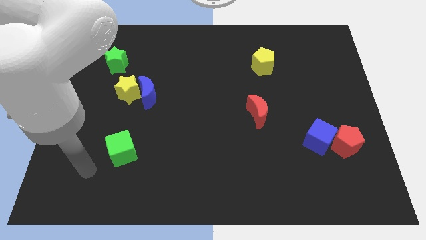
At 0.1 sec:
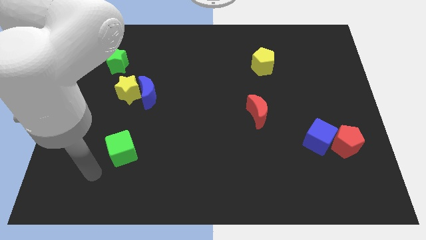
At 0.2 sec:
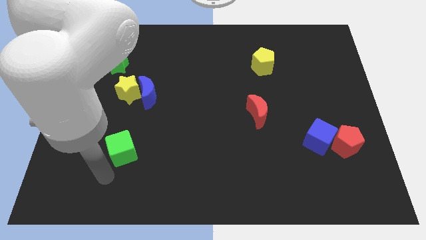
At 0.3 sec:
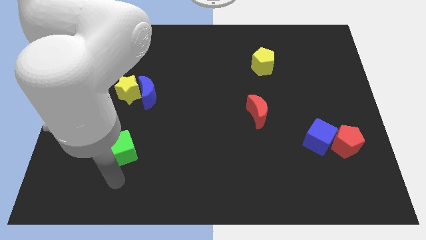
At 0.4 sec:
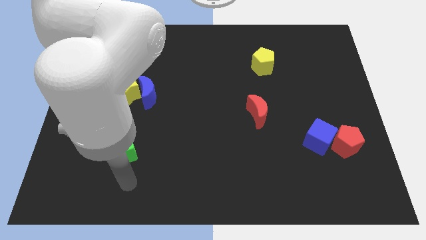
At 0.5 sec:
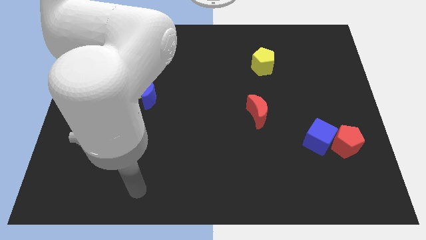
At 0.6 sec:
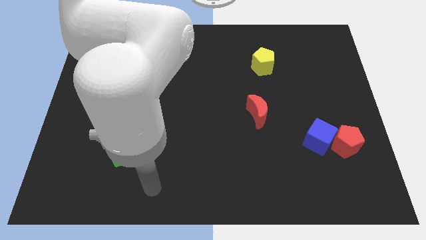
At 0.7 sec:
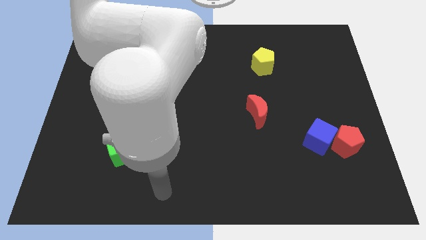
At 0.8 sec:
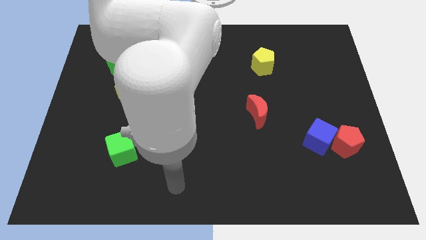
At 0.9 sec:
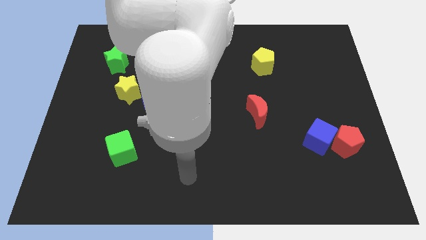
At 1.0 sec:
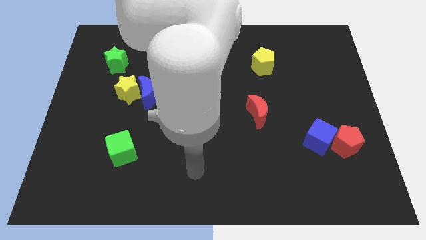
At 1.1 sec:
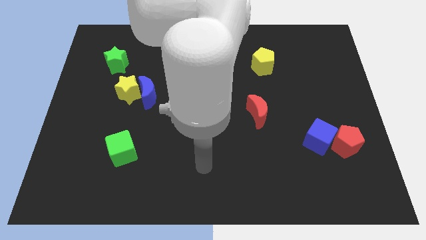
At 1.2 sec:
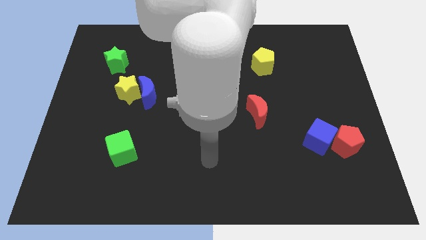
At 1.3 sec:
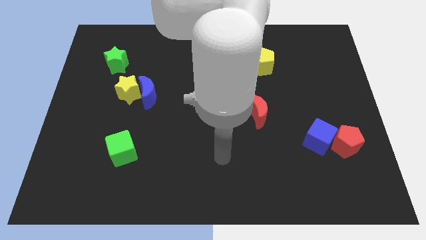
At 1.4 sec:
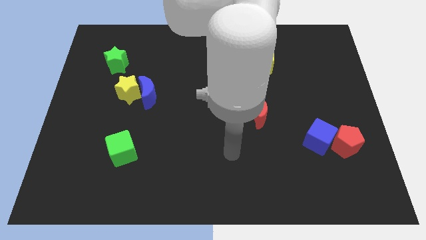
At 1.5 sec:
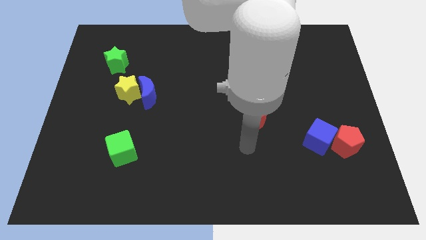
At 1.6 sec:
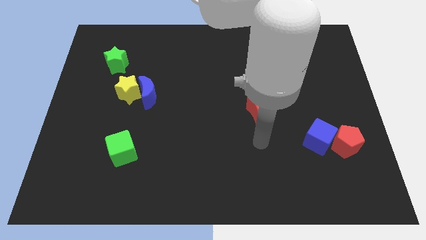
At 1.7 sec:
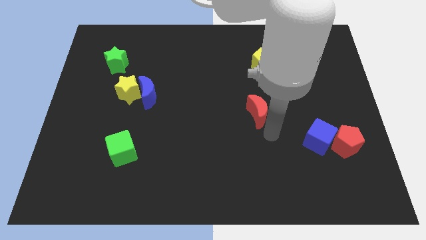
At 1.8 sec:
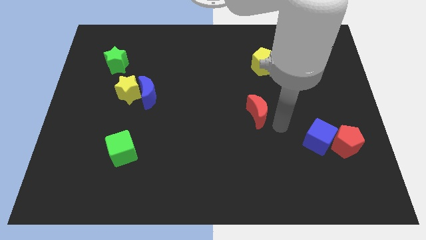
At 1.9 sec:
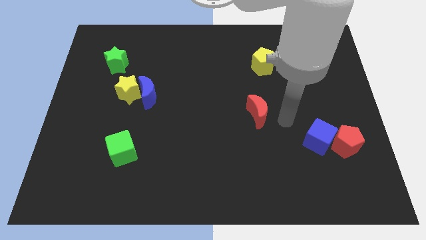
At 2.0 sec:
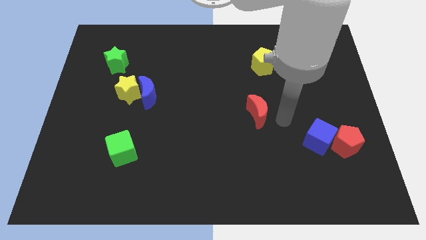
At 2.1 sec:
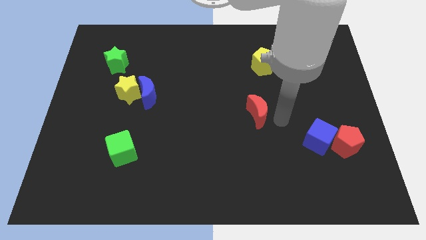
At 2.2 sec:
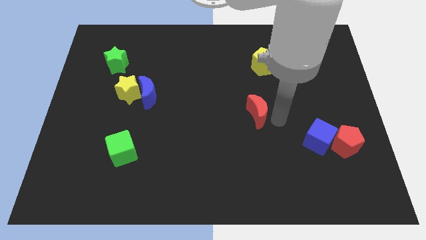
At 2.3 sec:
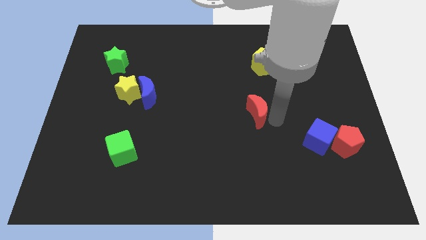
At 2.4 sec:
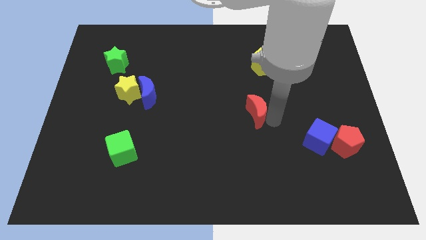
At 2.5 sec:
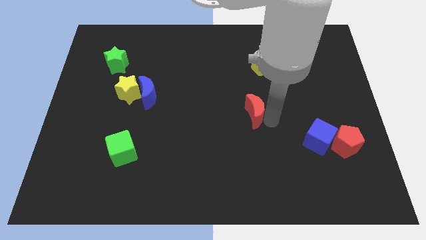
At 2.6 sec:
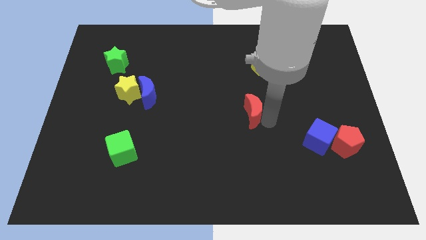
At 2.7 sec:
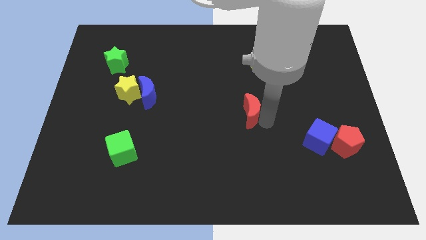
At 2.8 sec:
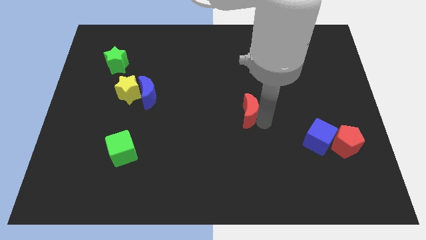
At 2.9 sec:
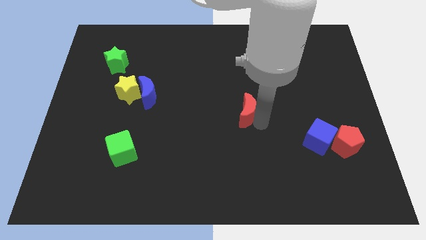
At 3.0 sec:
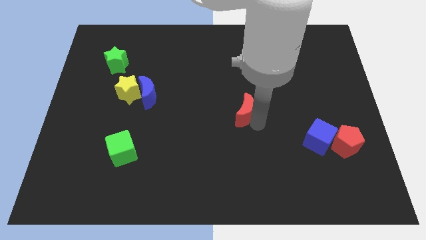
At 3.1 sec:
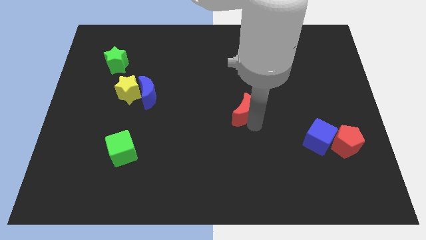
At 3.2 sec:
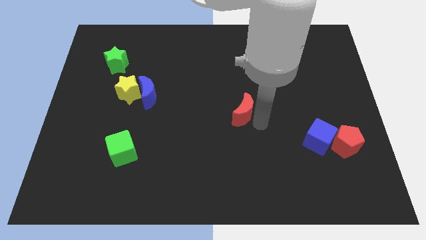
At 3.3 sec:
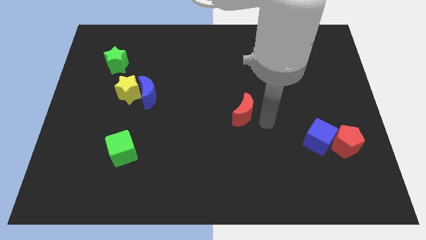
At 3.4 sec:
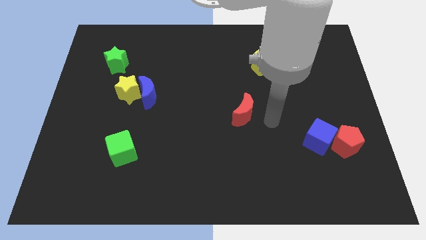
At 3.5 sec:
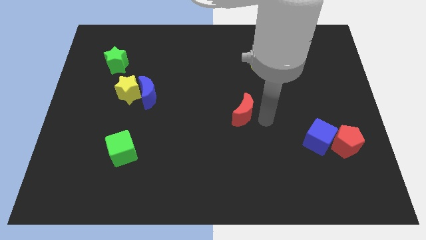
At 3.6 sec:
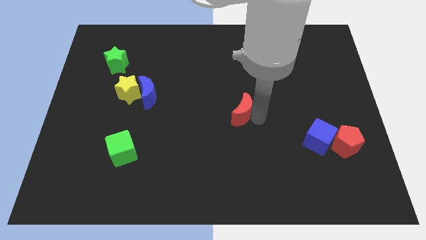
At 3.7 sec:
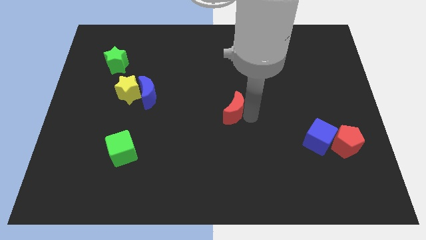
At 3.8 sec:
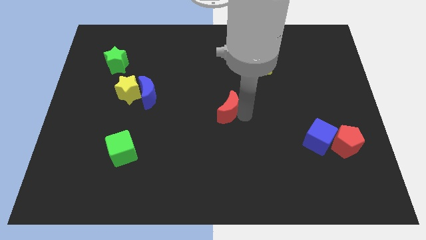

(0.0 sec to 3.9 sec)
slightly move the red moon to the left

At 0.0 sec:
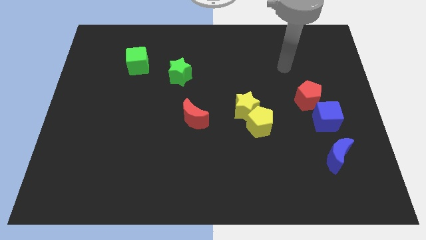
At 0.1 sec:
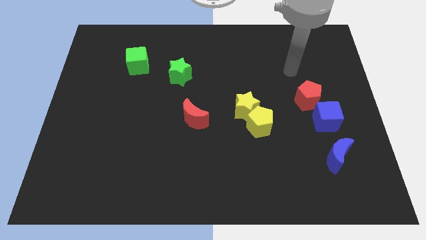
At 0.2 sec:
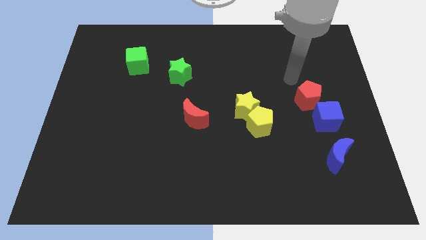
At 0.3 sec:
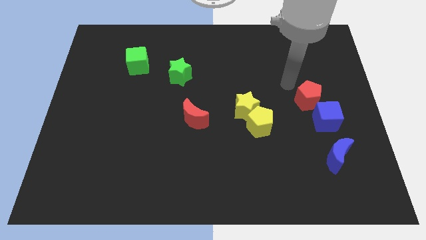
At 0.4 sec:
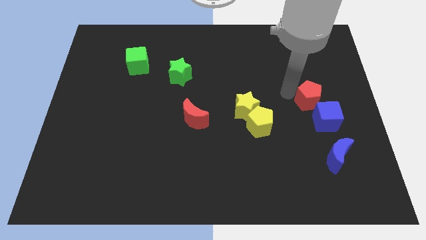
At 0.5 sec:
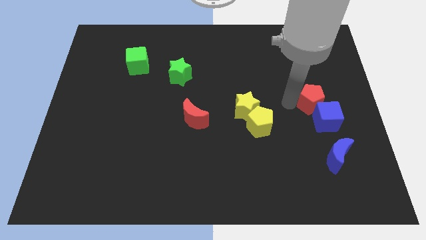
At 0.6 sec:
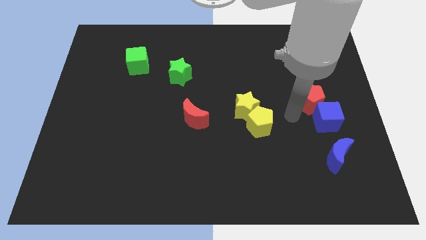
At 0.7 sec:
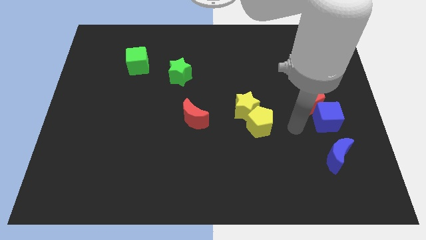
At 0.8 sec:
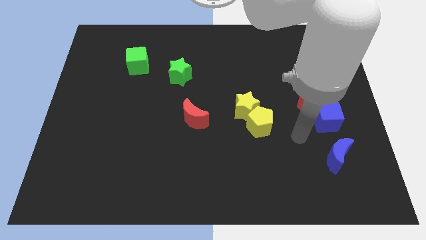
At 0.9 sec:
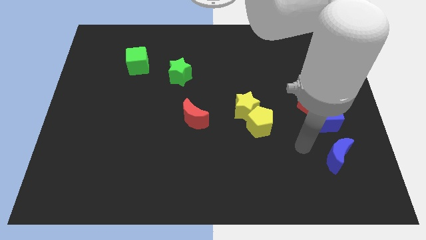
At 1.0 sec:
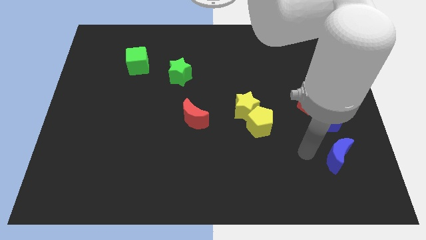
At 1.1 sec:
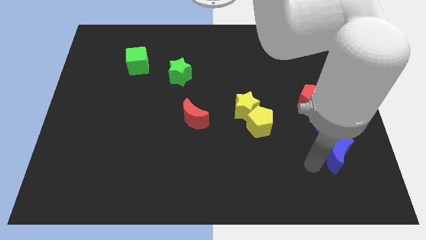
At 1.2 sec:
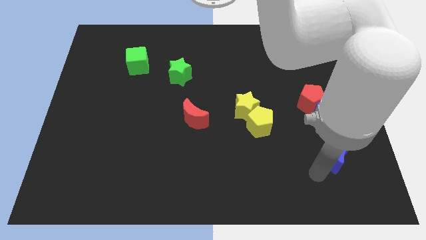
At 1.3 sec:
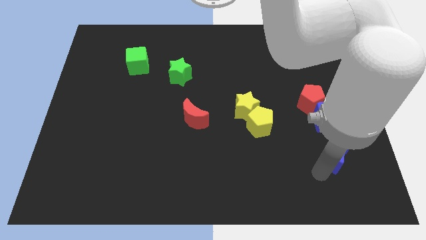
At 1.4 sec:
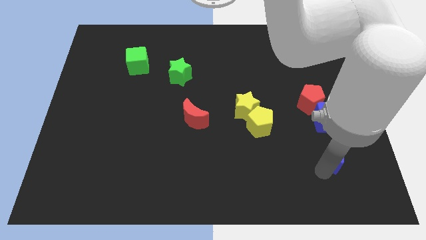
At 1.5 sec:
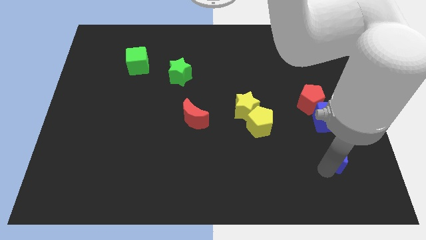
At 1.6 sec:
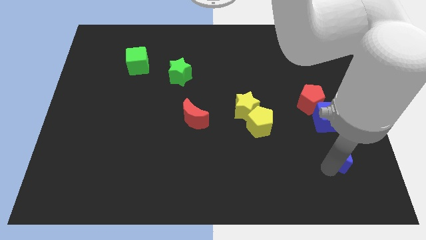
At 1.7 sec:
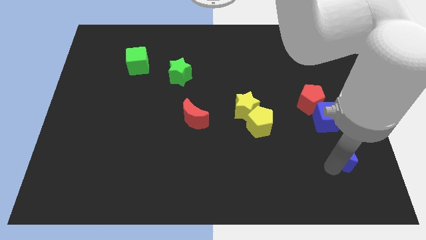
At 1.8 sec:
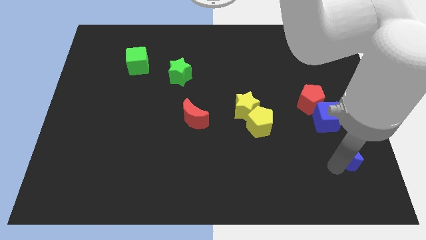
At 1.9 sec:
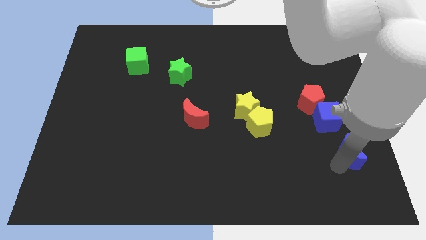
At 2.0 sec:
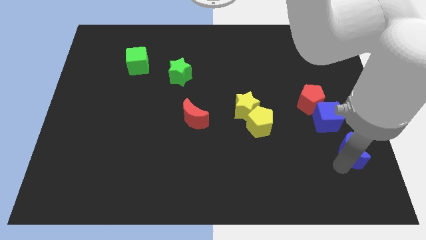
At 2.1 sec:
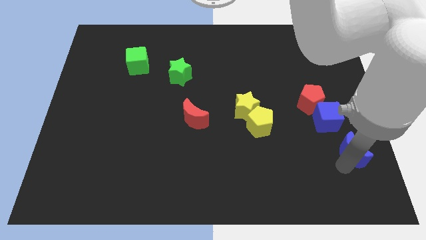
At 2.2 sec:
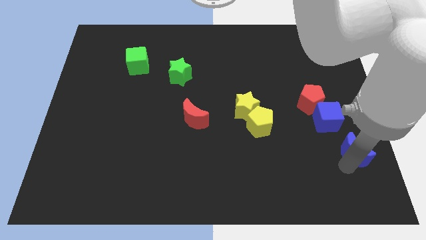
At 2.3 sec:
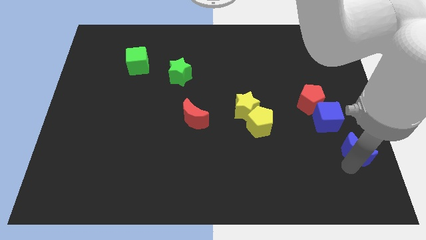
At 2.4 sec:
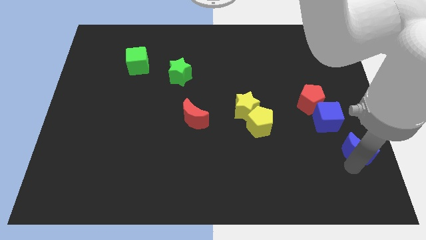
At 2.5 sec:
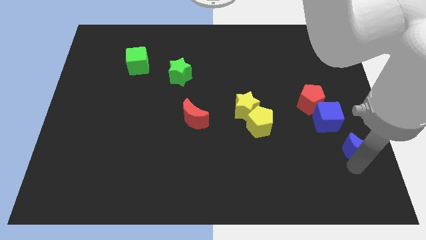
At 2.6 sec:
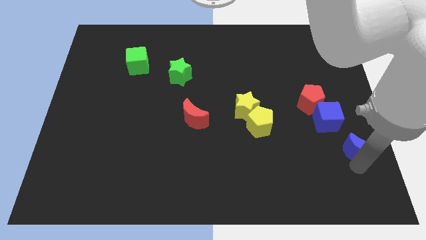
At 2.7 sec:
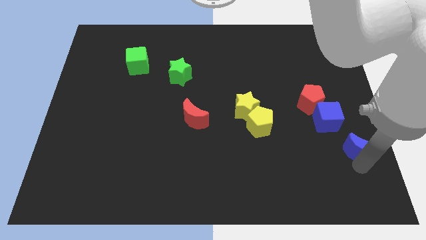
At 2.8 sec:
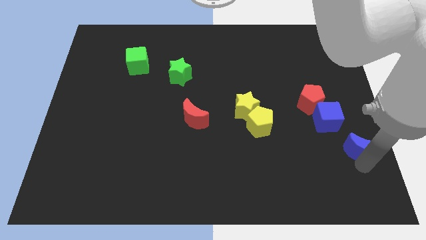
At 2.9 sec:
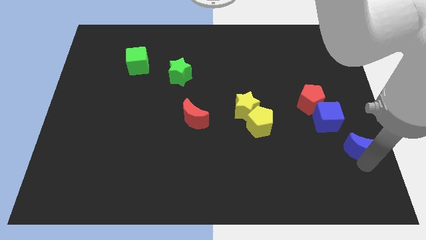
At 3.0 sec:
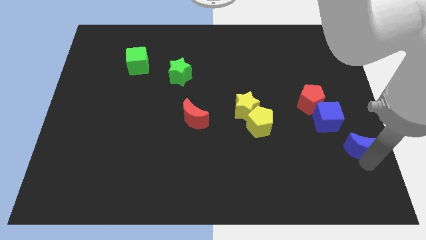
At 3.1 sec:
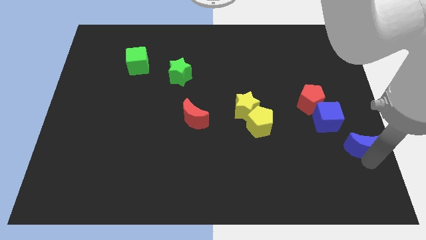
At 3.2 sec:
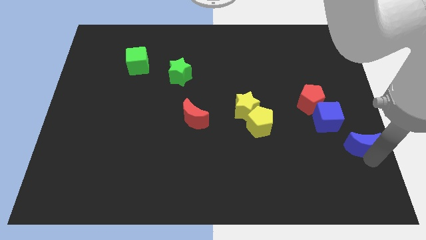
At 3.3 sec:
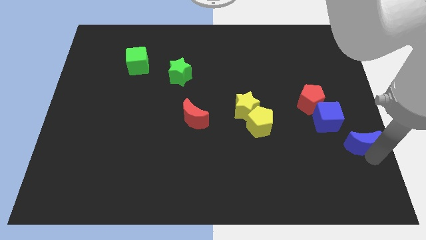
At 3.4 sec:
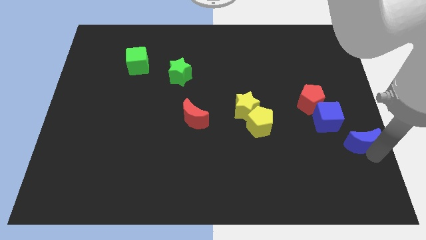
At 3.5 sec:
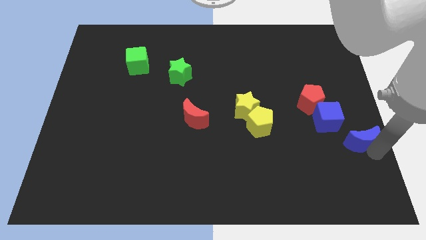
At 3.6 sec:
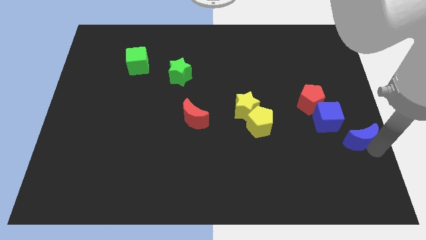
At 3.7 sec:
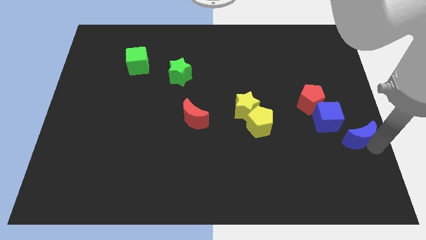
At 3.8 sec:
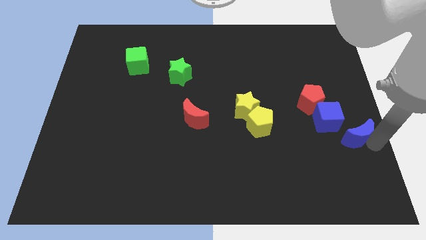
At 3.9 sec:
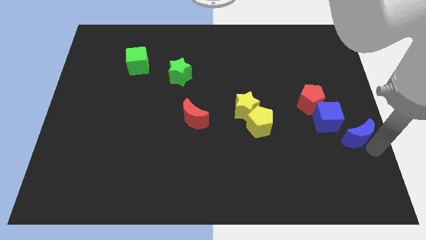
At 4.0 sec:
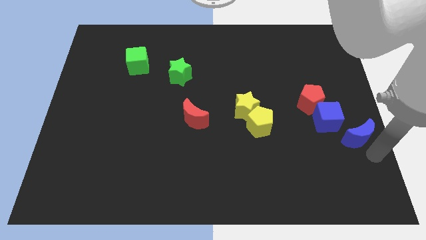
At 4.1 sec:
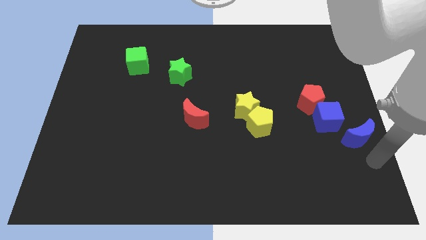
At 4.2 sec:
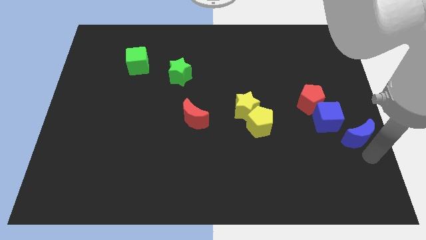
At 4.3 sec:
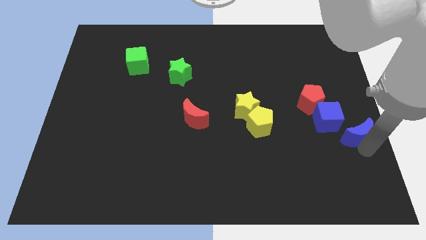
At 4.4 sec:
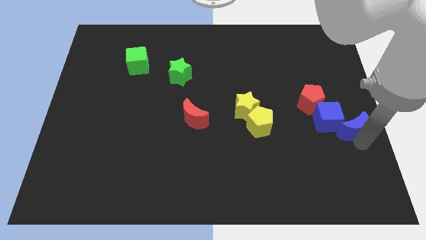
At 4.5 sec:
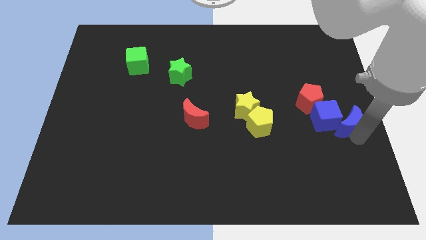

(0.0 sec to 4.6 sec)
slide the blue moon slightly upwards
